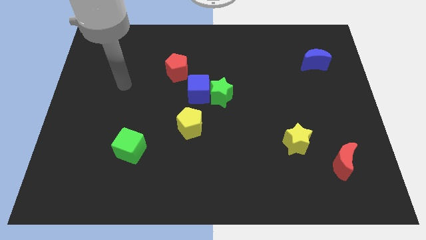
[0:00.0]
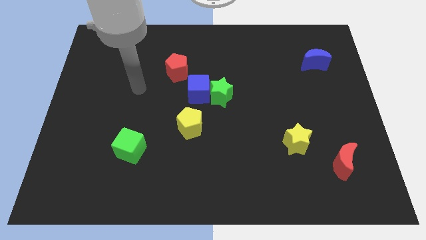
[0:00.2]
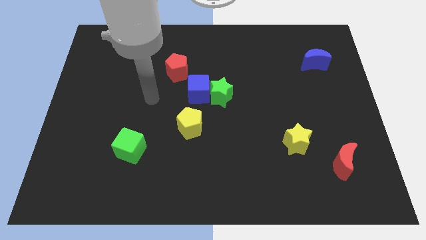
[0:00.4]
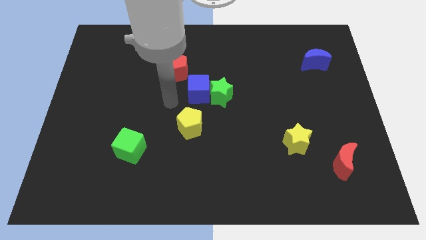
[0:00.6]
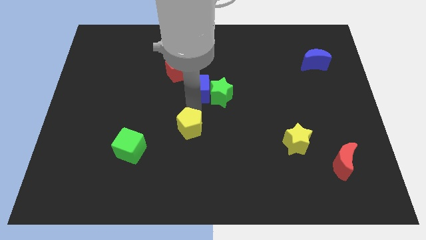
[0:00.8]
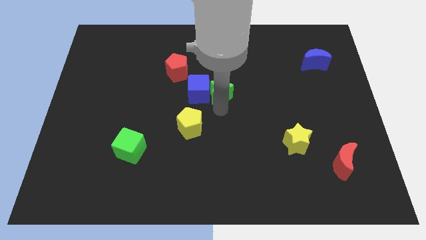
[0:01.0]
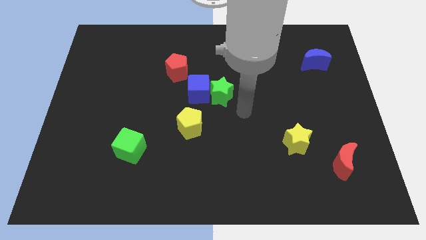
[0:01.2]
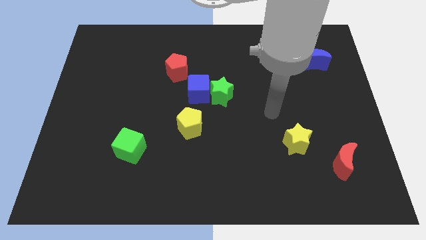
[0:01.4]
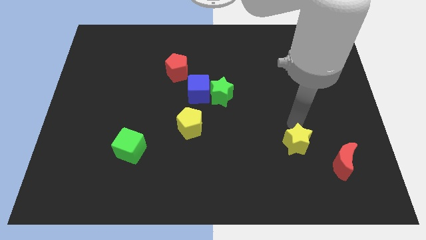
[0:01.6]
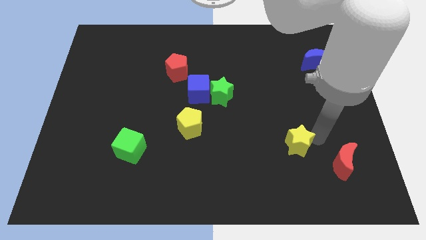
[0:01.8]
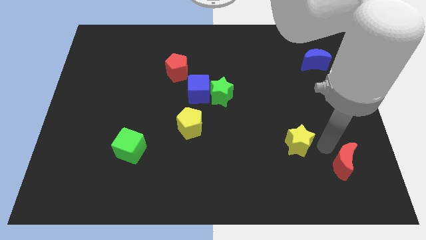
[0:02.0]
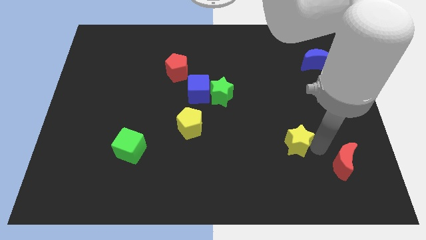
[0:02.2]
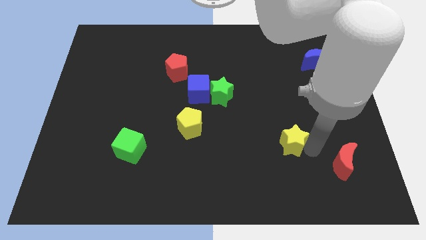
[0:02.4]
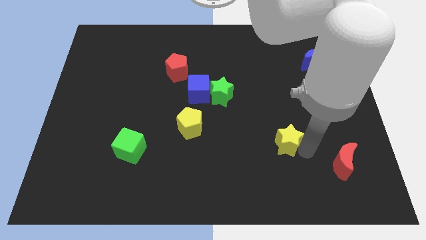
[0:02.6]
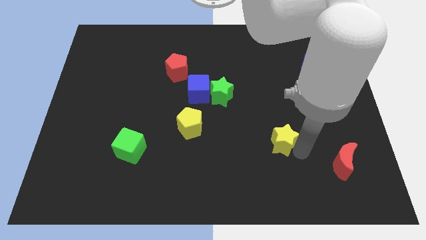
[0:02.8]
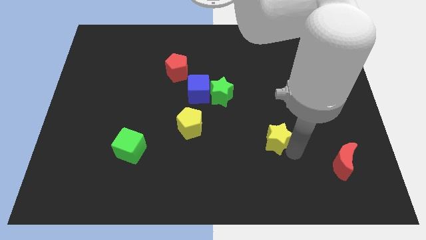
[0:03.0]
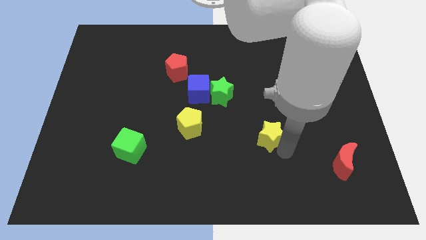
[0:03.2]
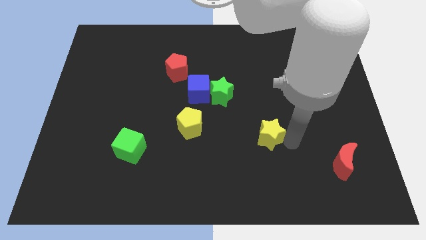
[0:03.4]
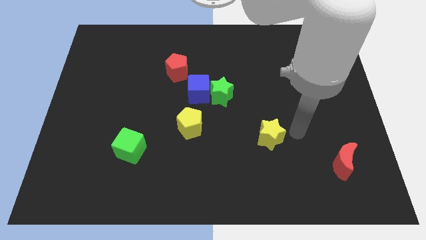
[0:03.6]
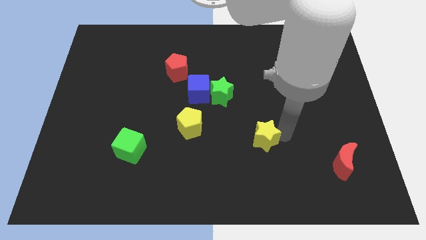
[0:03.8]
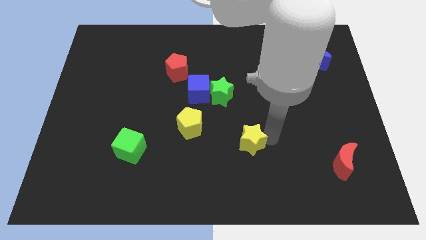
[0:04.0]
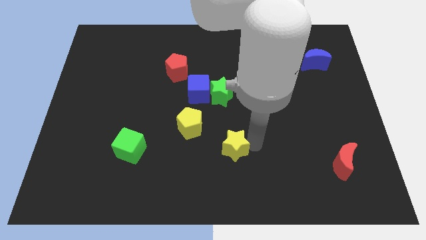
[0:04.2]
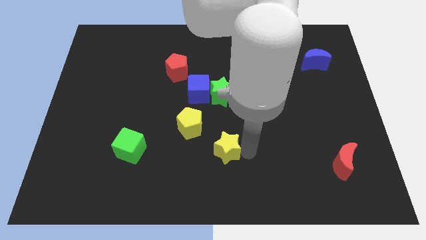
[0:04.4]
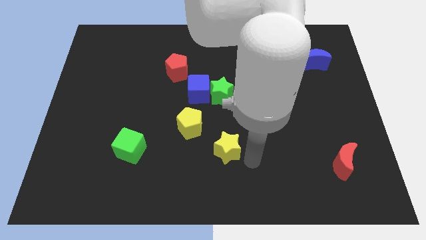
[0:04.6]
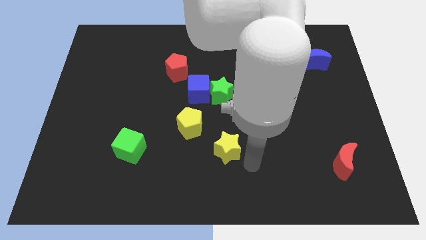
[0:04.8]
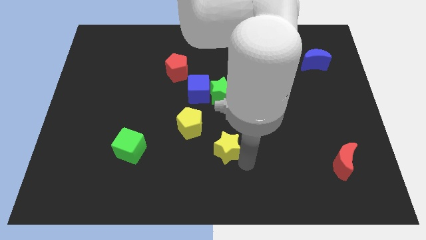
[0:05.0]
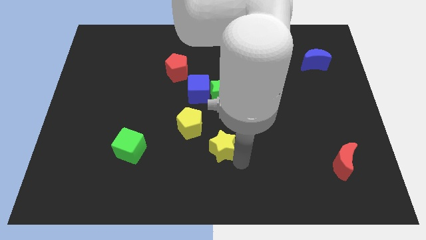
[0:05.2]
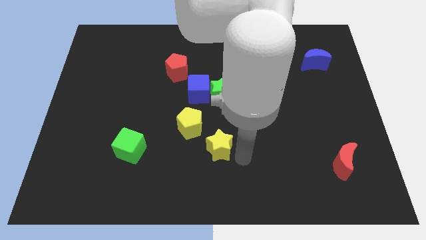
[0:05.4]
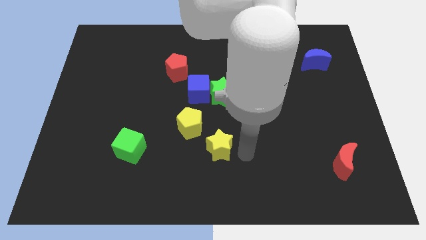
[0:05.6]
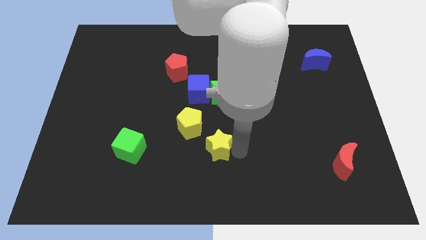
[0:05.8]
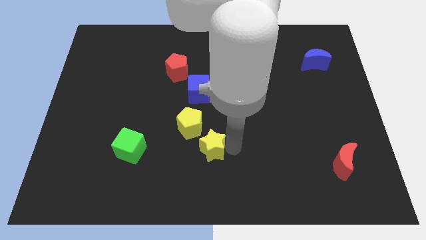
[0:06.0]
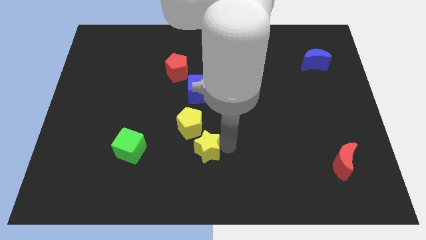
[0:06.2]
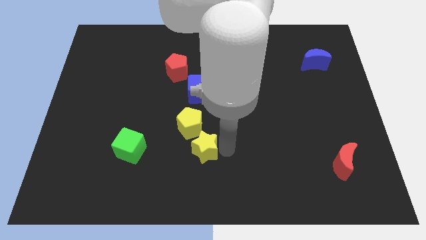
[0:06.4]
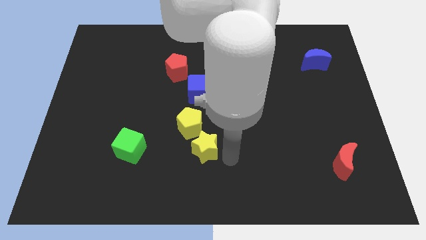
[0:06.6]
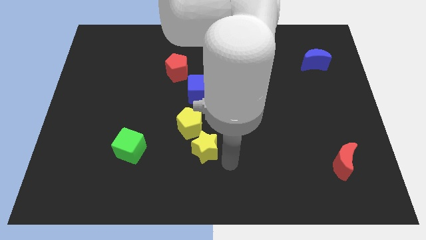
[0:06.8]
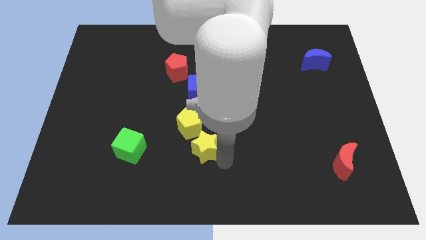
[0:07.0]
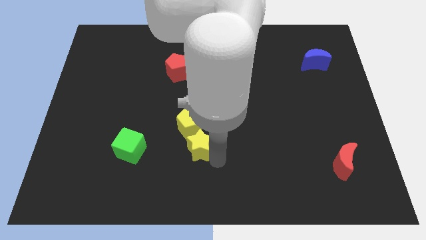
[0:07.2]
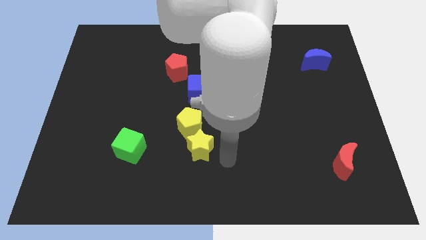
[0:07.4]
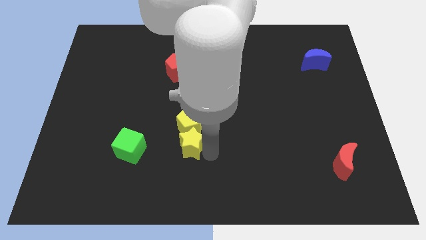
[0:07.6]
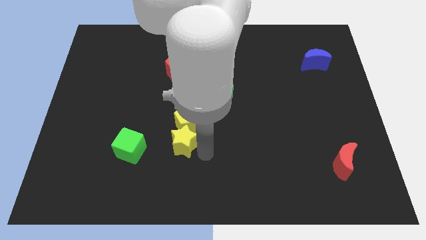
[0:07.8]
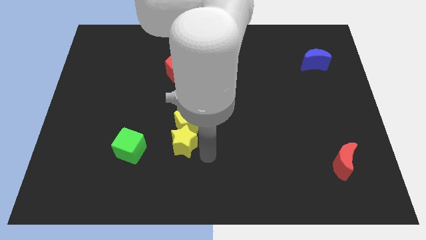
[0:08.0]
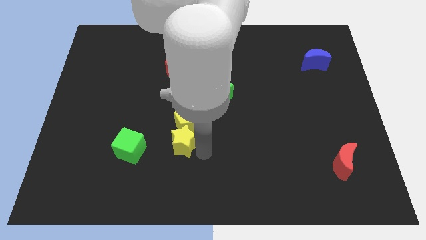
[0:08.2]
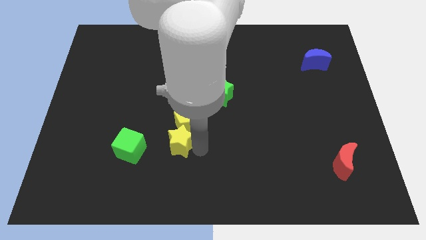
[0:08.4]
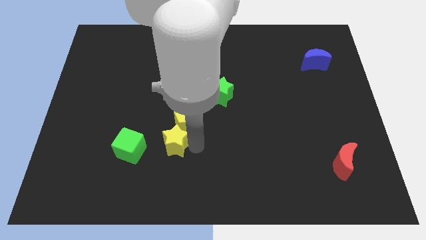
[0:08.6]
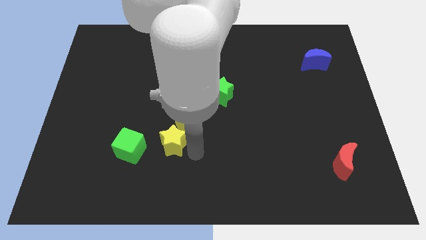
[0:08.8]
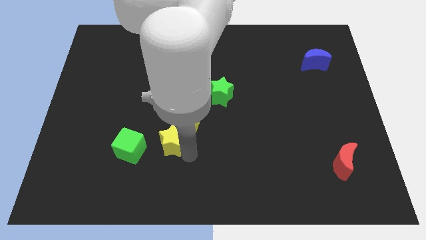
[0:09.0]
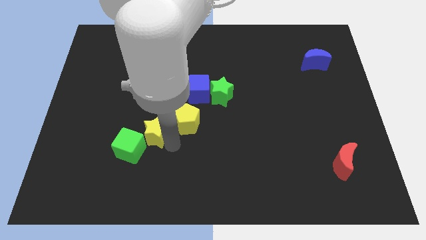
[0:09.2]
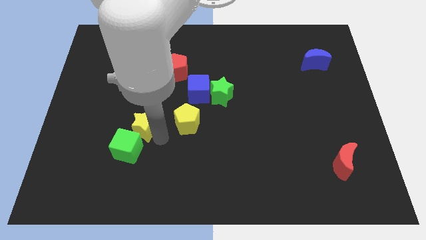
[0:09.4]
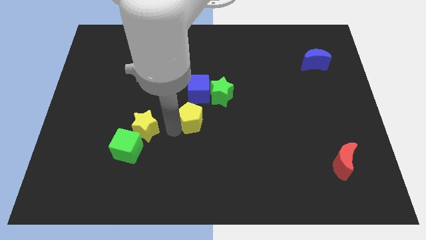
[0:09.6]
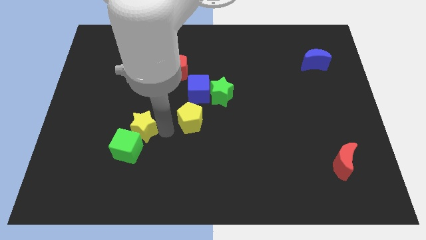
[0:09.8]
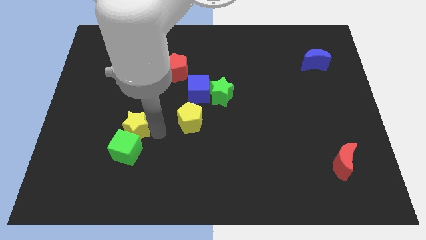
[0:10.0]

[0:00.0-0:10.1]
push the yellow star to the top left of the green cube

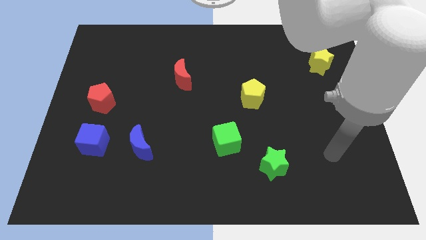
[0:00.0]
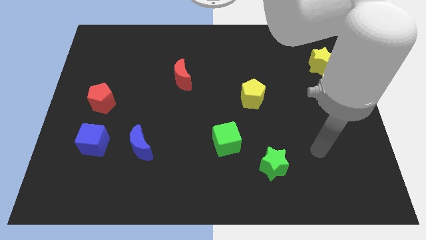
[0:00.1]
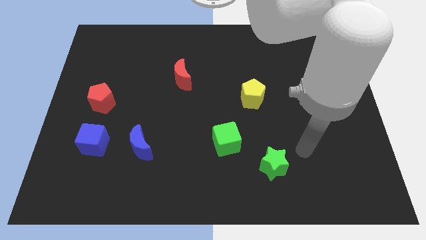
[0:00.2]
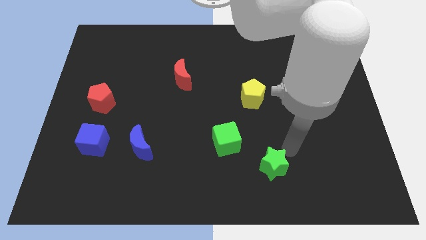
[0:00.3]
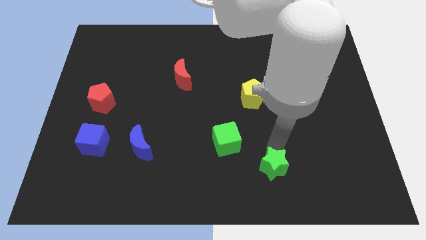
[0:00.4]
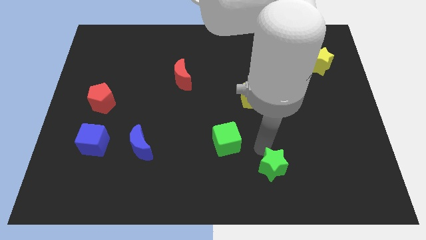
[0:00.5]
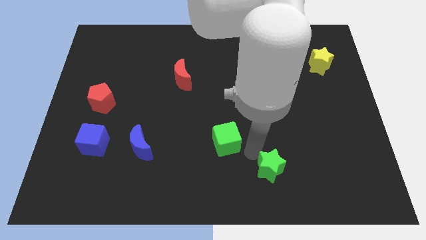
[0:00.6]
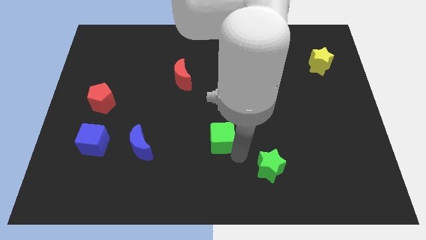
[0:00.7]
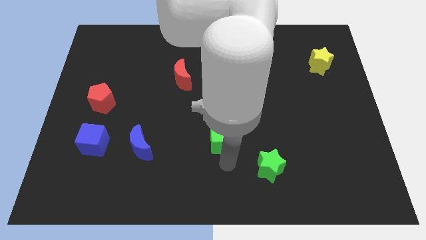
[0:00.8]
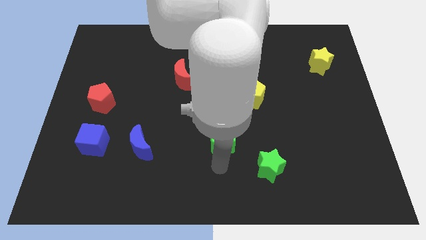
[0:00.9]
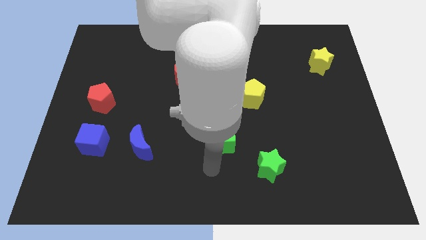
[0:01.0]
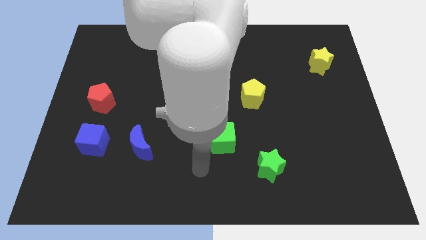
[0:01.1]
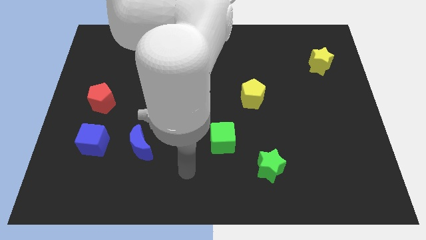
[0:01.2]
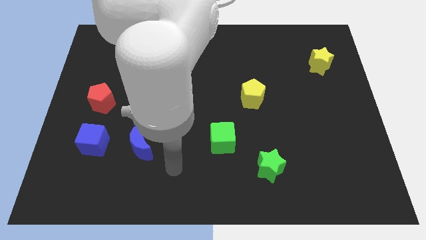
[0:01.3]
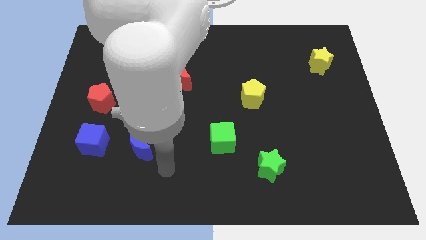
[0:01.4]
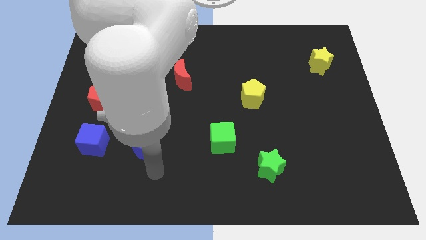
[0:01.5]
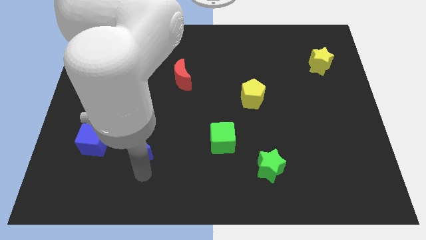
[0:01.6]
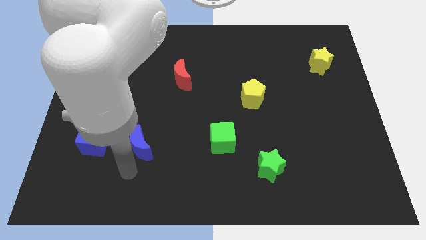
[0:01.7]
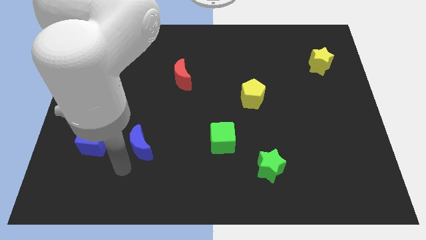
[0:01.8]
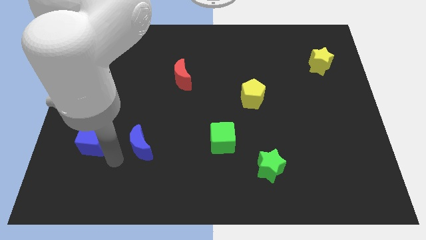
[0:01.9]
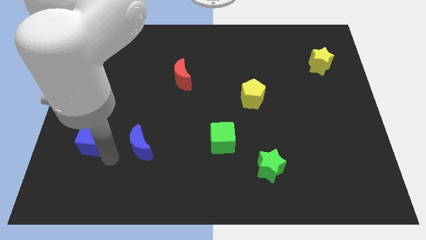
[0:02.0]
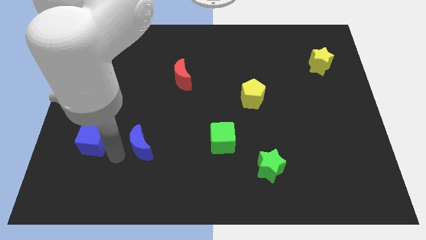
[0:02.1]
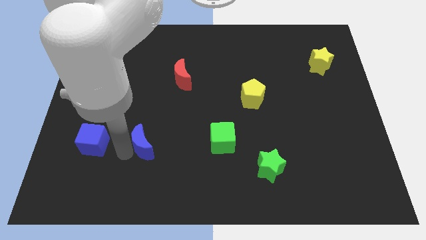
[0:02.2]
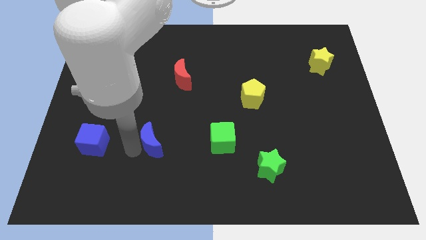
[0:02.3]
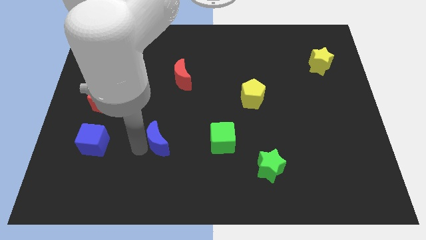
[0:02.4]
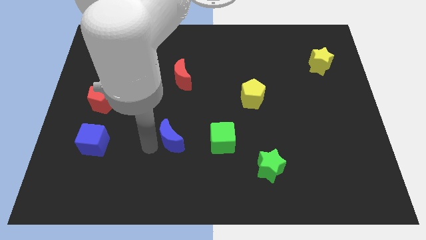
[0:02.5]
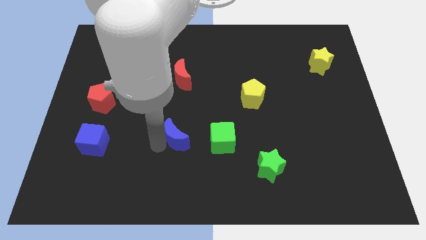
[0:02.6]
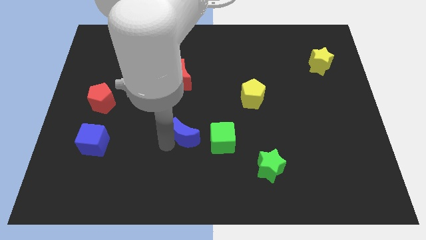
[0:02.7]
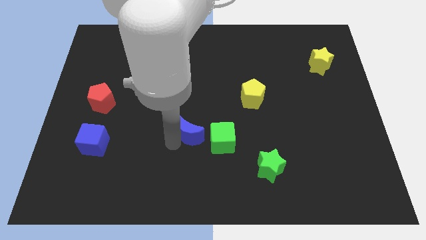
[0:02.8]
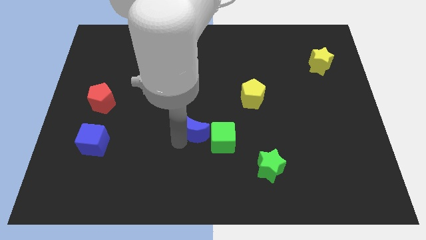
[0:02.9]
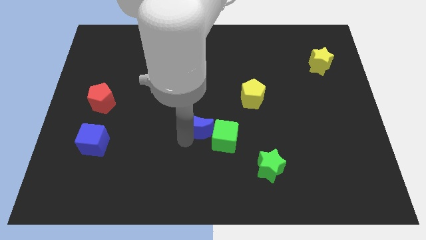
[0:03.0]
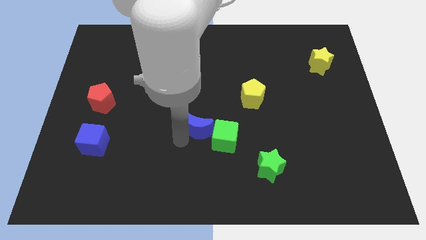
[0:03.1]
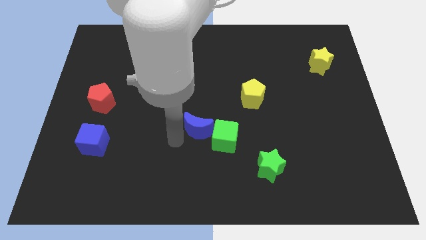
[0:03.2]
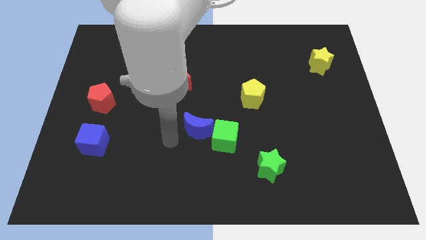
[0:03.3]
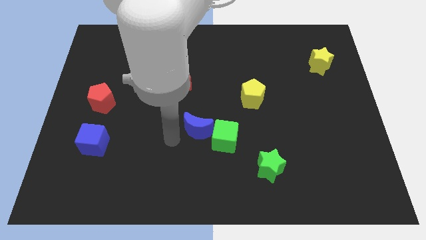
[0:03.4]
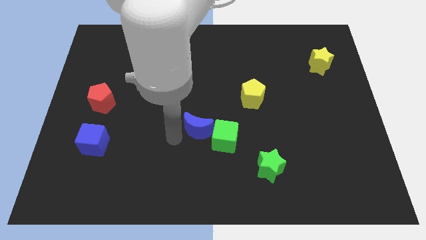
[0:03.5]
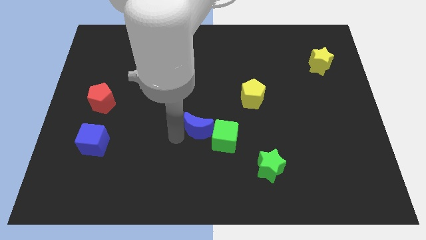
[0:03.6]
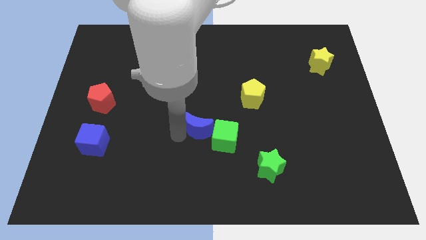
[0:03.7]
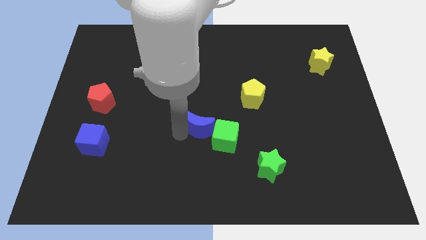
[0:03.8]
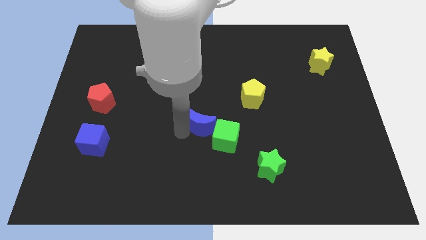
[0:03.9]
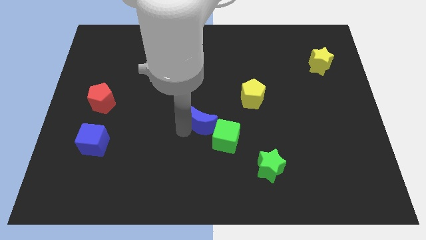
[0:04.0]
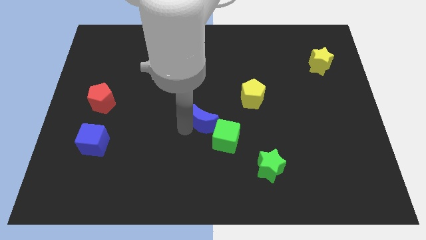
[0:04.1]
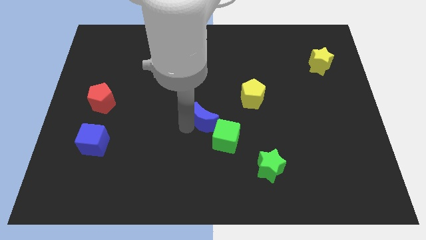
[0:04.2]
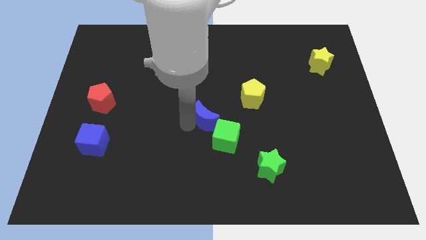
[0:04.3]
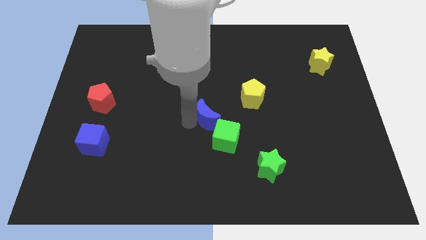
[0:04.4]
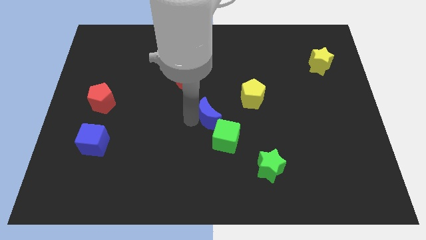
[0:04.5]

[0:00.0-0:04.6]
move the blue moon to the bottom left side of the yellow pentagon
